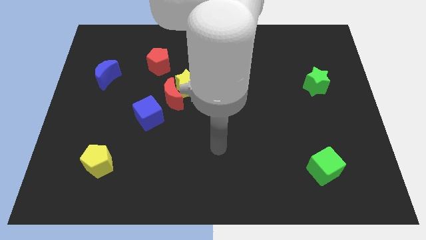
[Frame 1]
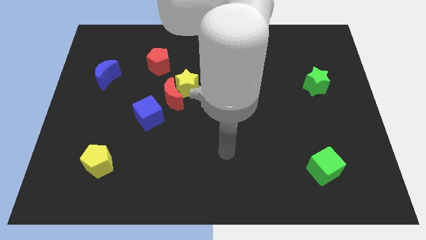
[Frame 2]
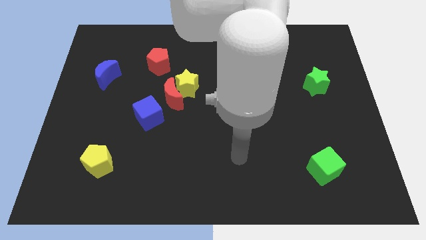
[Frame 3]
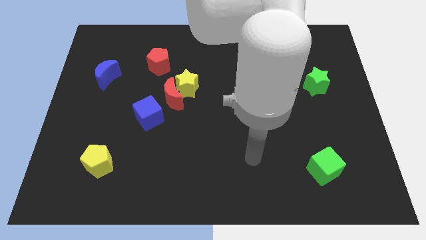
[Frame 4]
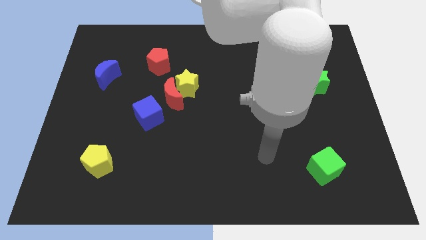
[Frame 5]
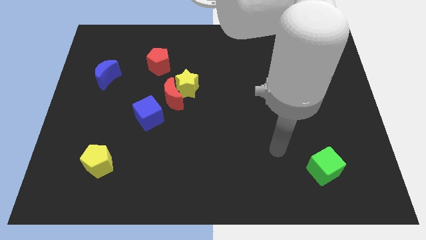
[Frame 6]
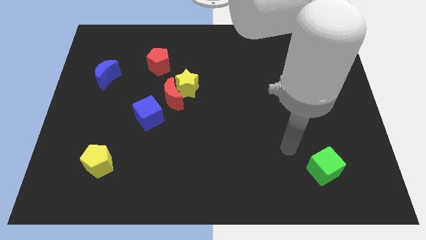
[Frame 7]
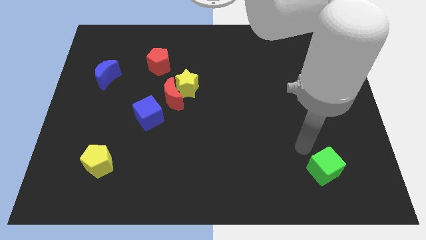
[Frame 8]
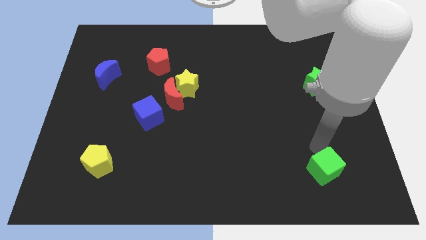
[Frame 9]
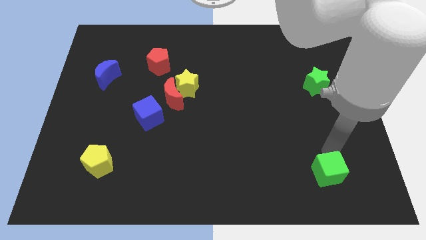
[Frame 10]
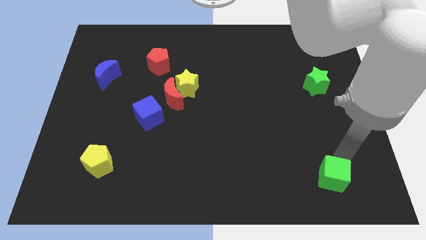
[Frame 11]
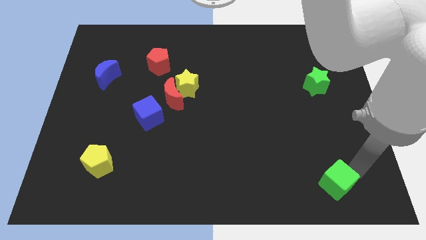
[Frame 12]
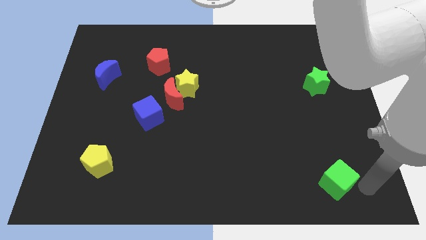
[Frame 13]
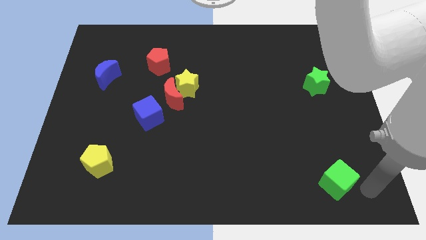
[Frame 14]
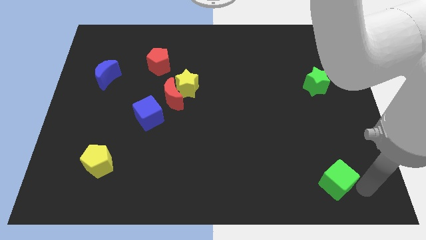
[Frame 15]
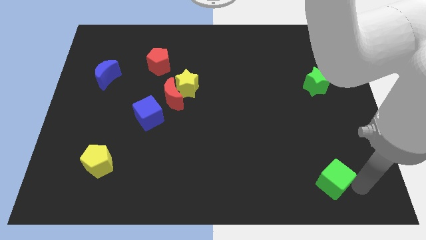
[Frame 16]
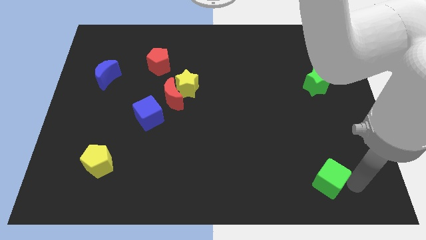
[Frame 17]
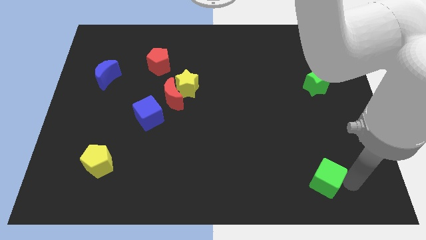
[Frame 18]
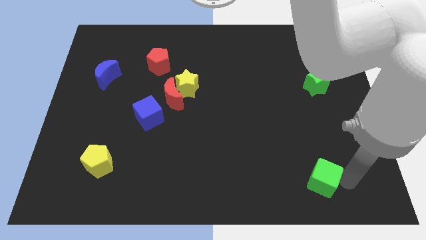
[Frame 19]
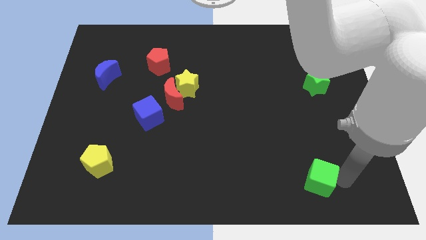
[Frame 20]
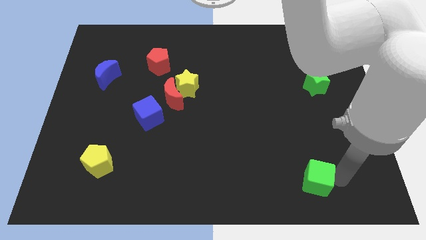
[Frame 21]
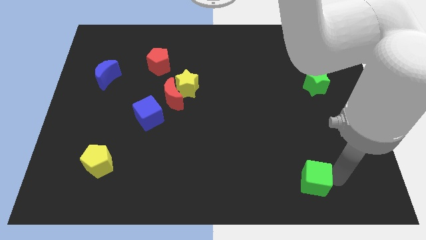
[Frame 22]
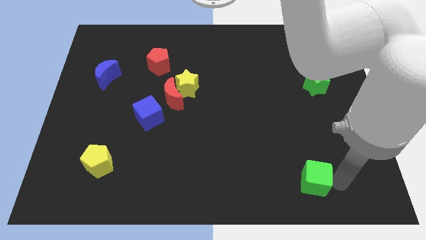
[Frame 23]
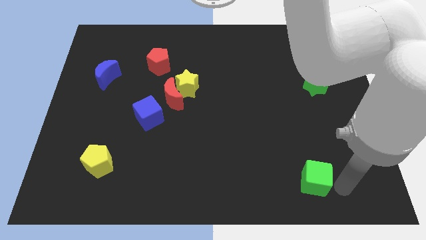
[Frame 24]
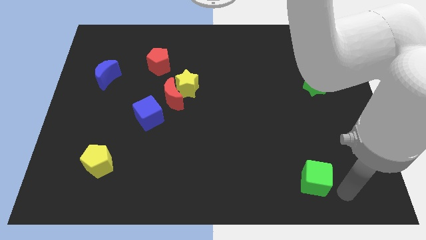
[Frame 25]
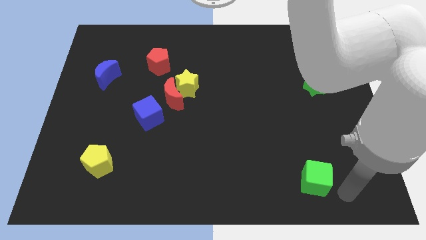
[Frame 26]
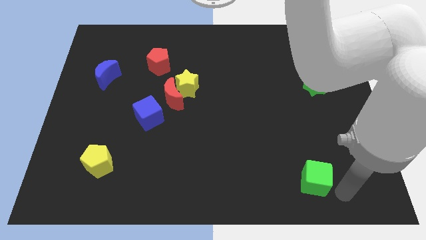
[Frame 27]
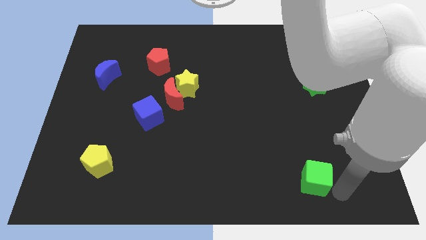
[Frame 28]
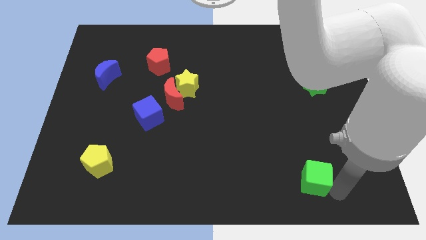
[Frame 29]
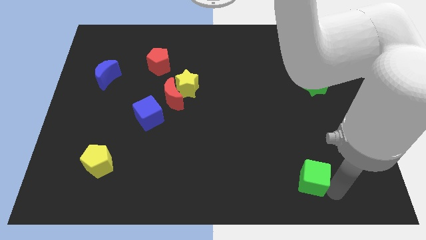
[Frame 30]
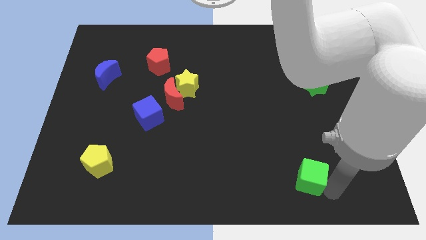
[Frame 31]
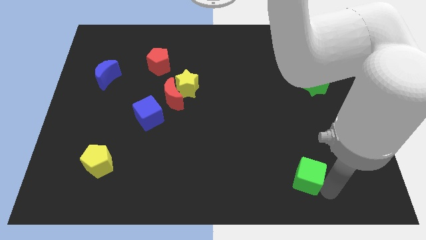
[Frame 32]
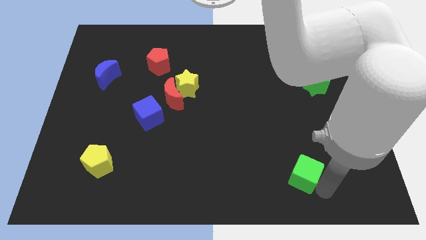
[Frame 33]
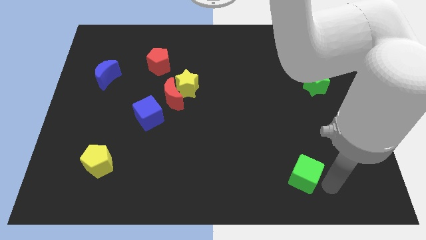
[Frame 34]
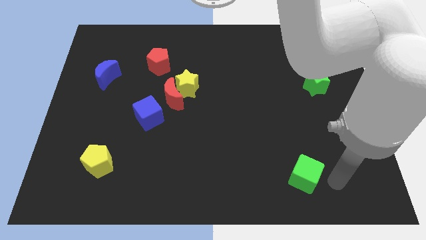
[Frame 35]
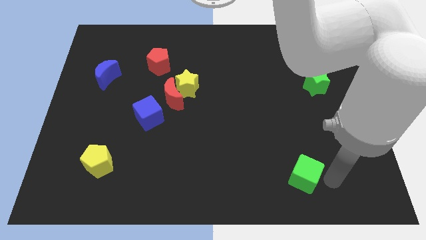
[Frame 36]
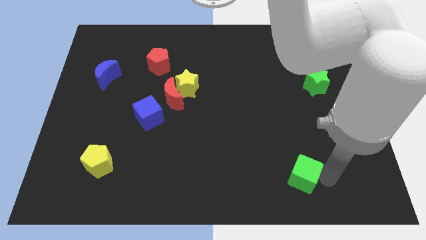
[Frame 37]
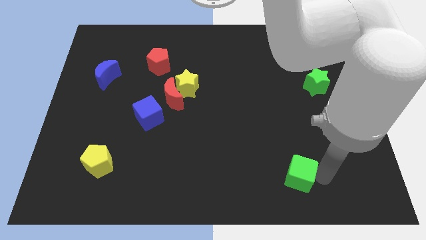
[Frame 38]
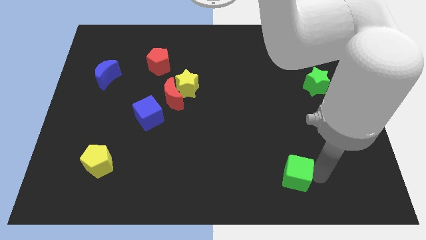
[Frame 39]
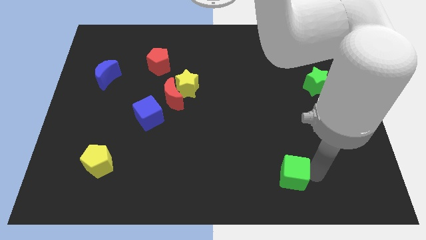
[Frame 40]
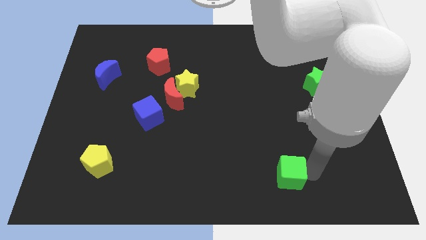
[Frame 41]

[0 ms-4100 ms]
move the green cube a little left

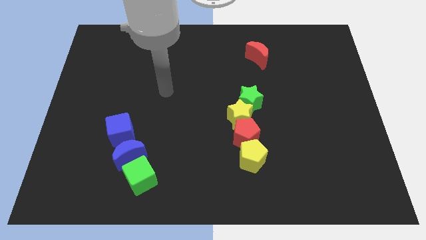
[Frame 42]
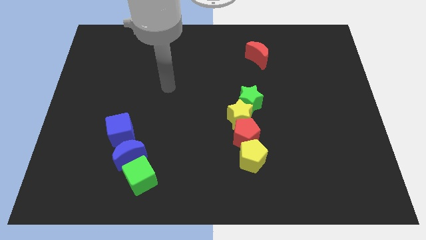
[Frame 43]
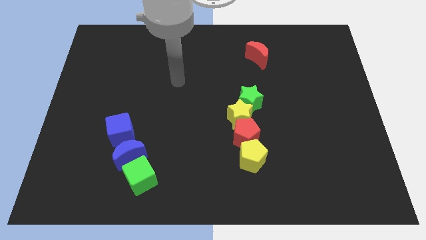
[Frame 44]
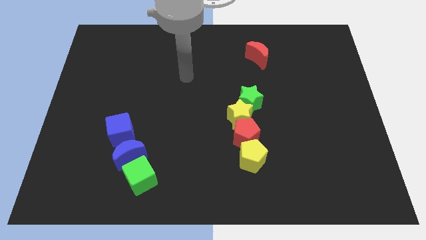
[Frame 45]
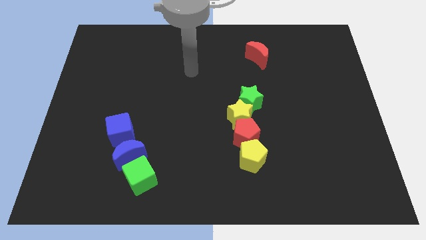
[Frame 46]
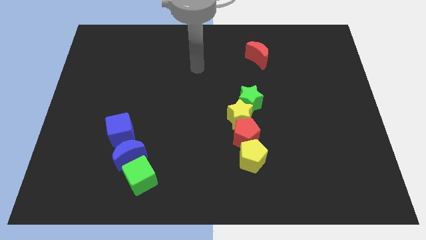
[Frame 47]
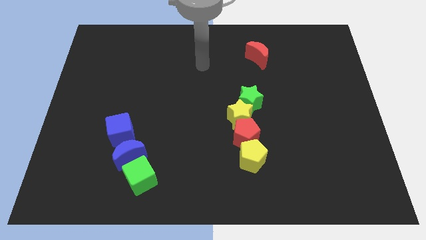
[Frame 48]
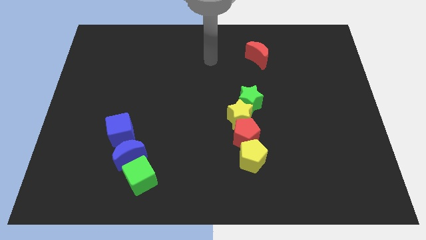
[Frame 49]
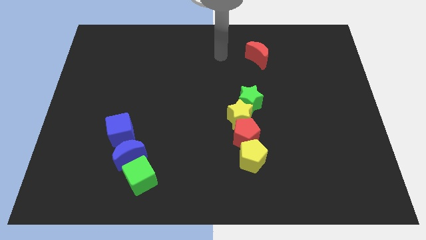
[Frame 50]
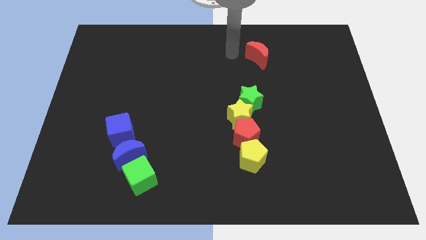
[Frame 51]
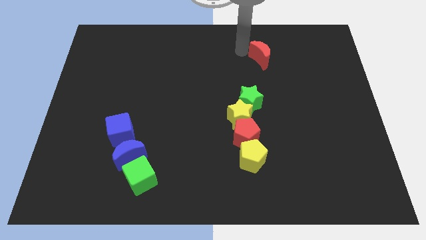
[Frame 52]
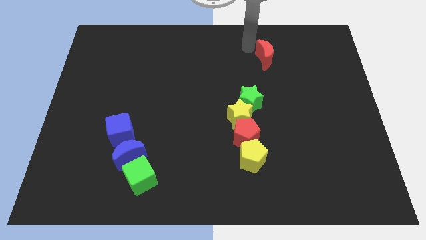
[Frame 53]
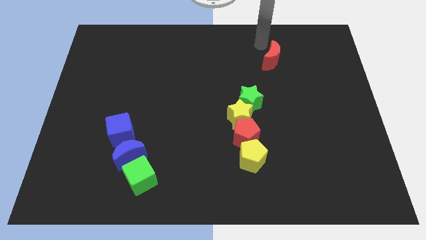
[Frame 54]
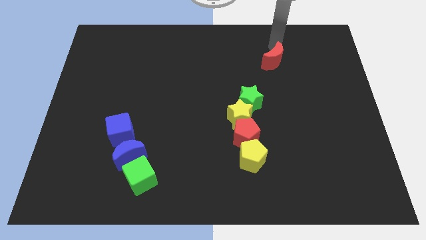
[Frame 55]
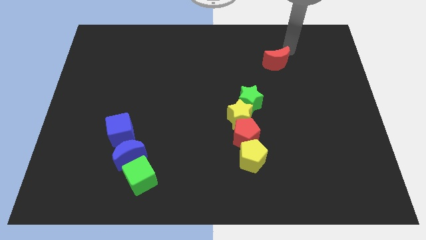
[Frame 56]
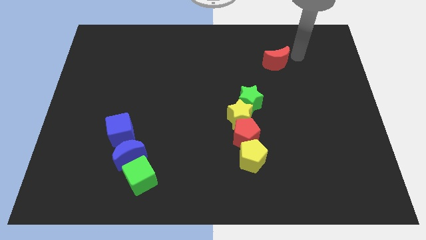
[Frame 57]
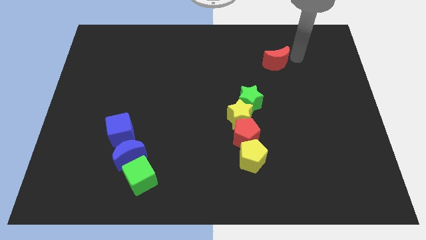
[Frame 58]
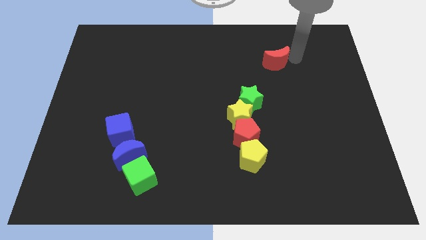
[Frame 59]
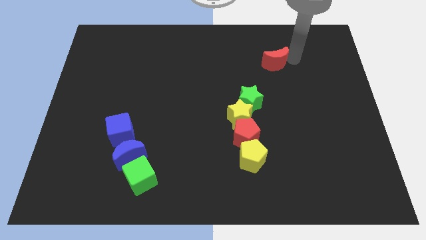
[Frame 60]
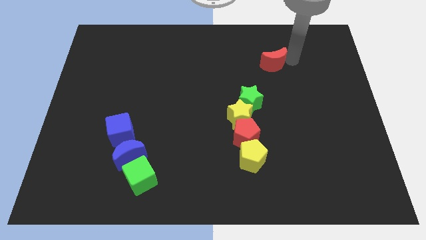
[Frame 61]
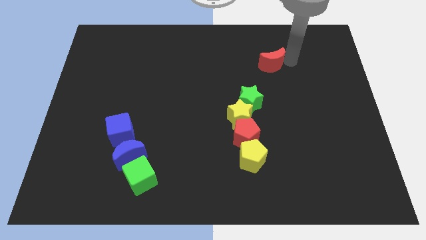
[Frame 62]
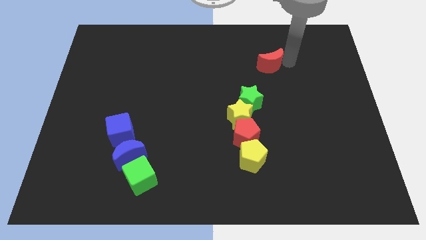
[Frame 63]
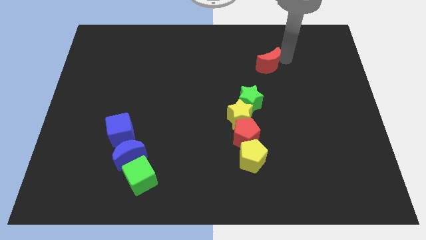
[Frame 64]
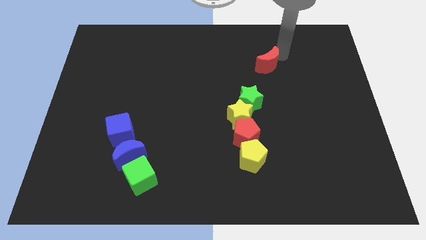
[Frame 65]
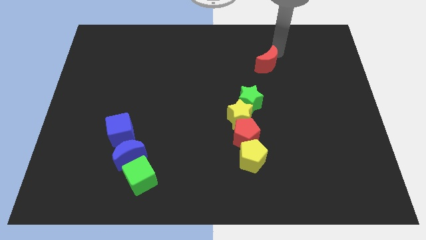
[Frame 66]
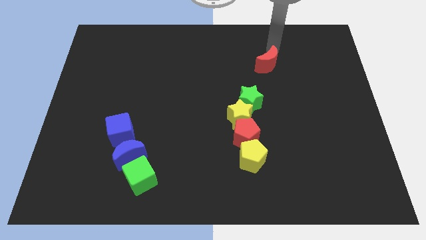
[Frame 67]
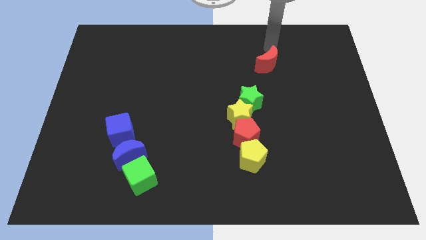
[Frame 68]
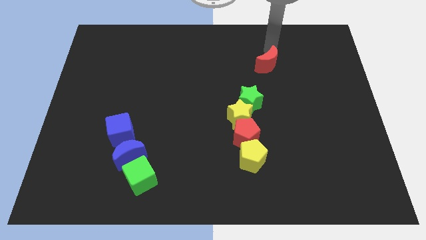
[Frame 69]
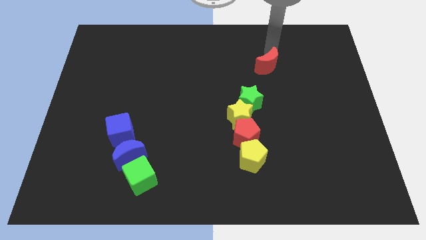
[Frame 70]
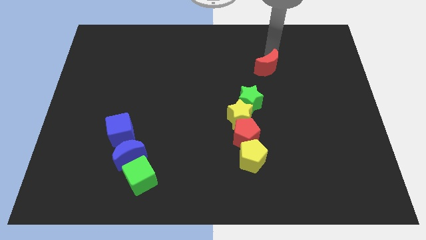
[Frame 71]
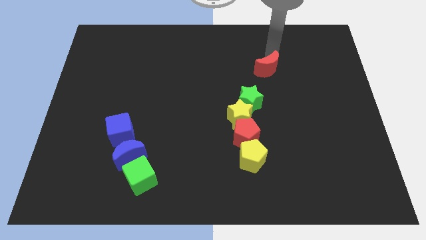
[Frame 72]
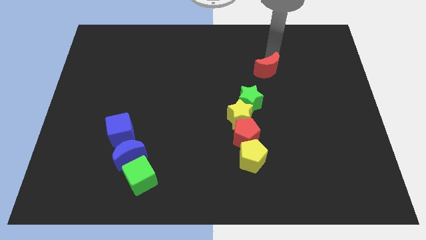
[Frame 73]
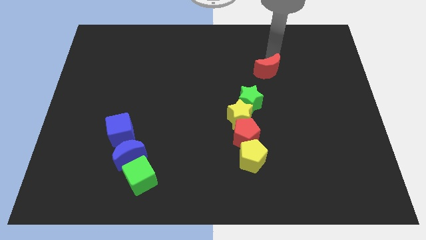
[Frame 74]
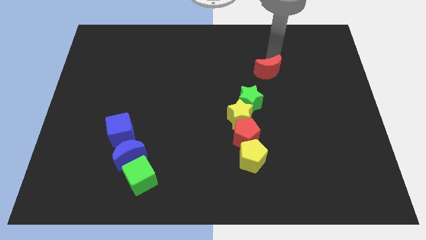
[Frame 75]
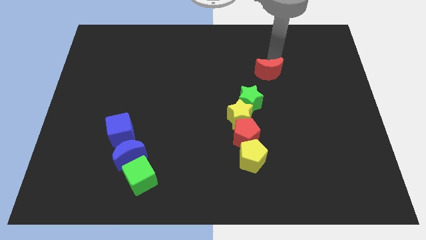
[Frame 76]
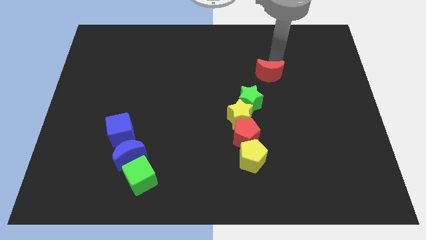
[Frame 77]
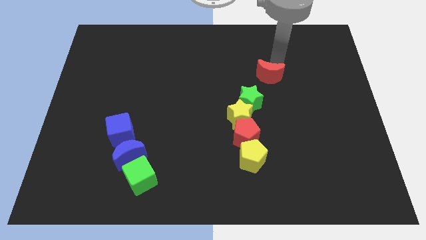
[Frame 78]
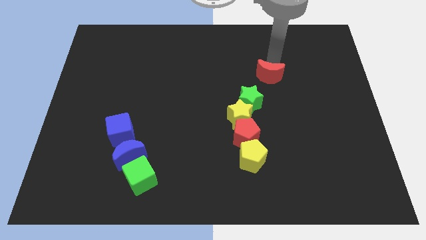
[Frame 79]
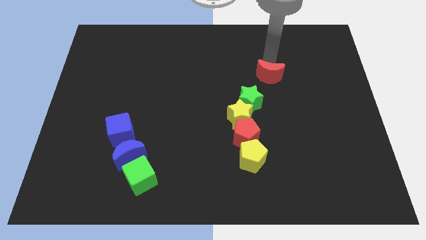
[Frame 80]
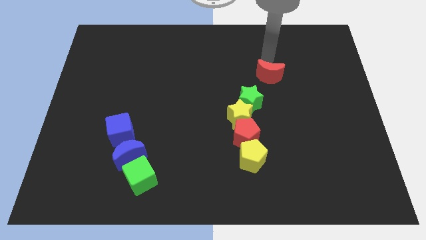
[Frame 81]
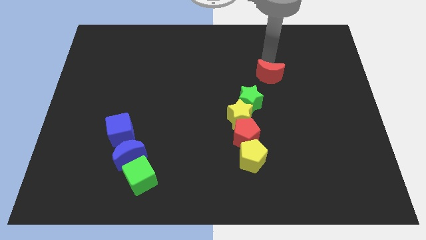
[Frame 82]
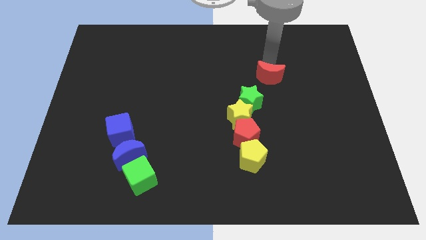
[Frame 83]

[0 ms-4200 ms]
push the red moon a little bit down
